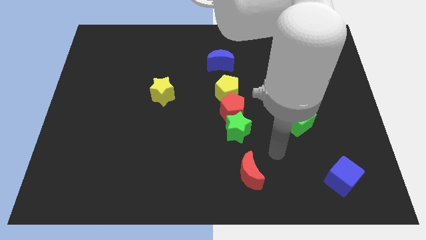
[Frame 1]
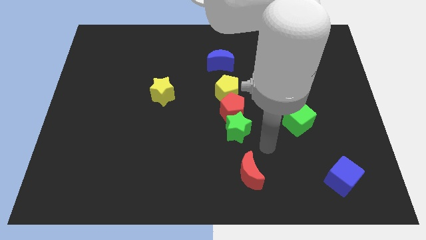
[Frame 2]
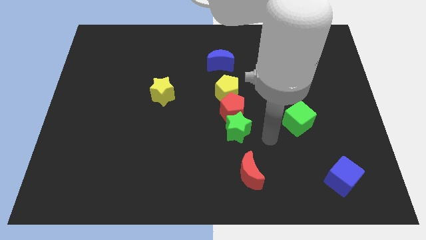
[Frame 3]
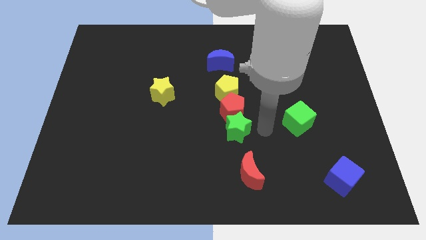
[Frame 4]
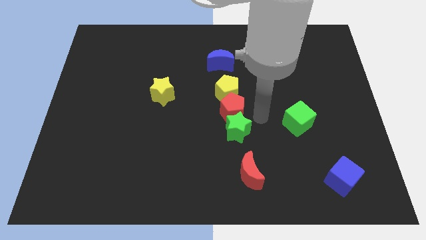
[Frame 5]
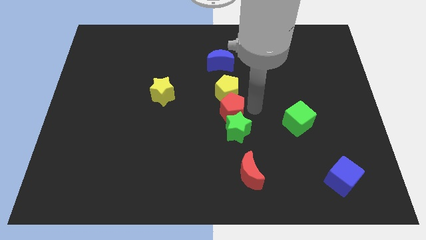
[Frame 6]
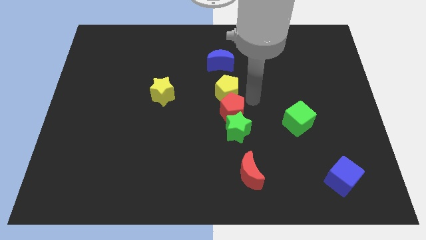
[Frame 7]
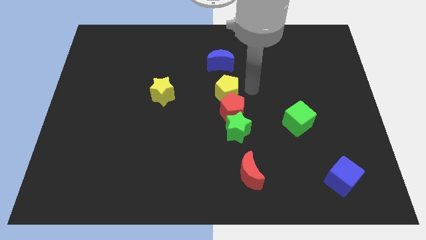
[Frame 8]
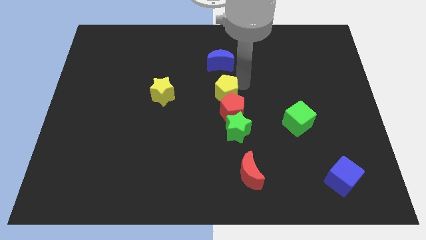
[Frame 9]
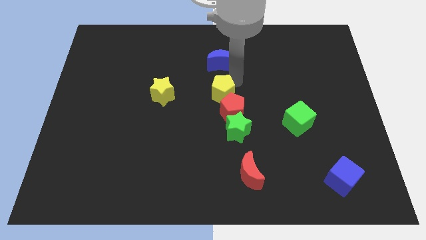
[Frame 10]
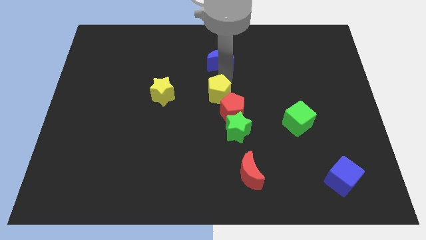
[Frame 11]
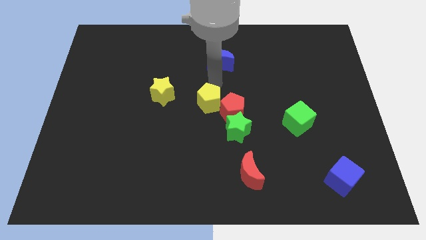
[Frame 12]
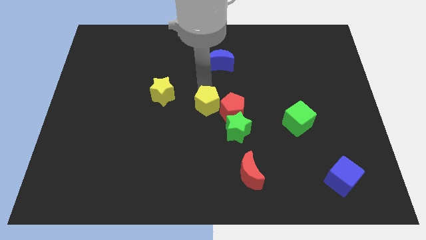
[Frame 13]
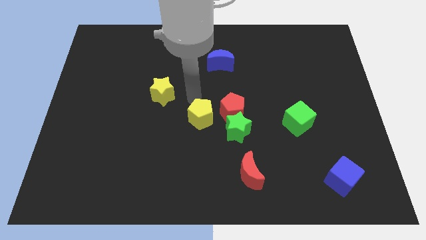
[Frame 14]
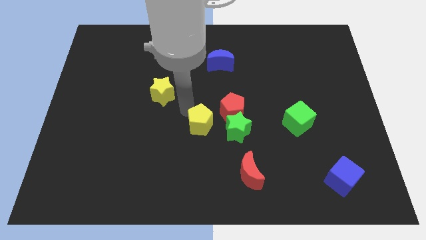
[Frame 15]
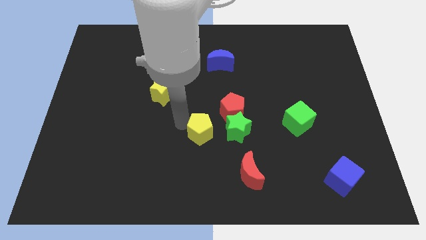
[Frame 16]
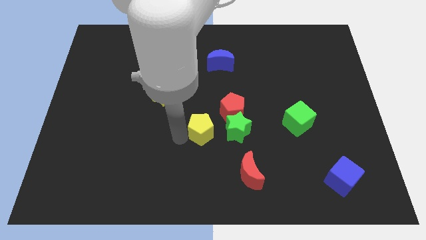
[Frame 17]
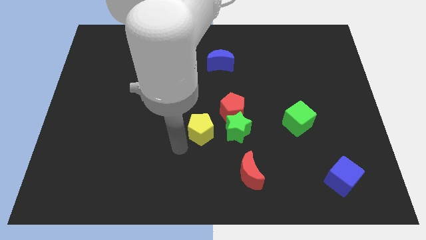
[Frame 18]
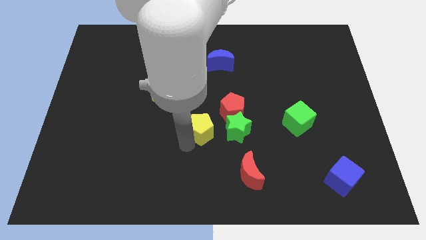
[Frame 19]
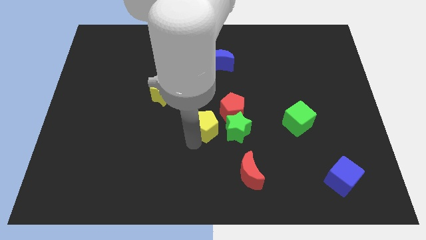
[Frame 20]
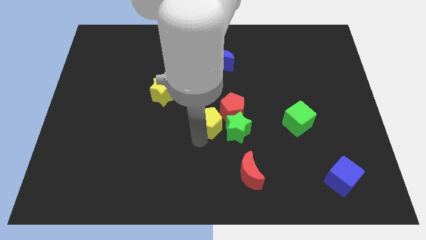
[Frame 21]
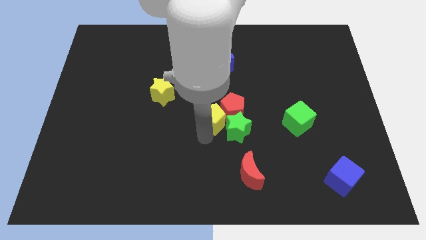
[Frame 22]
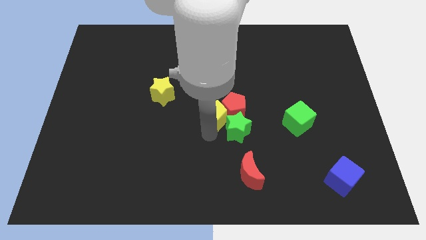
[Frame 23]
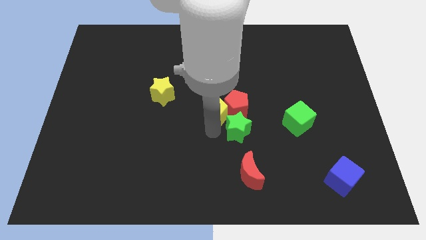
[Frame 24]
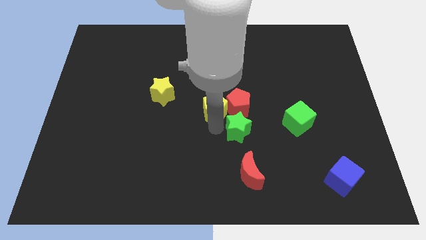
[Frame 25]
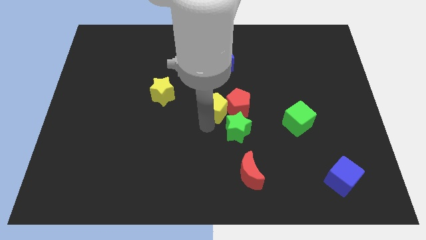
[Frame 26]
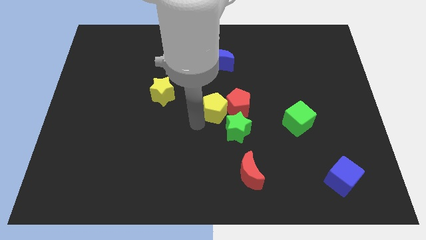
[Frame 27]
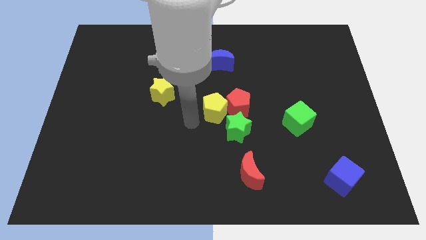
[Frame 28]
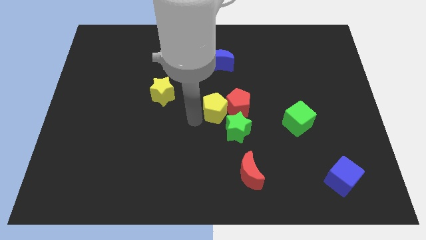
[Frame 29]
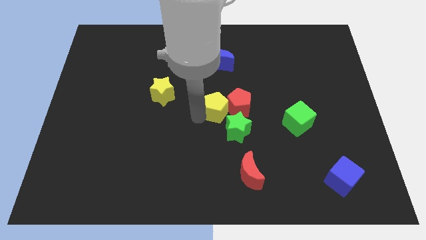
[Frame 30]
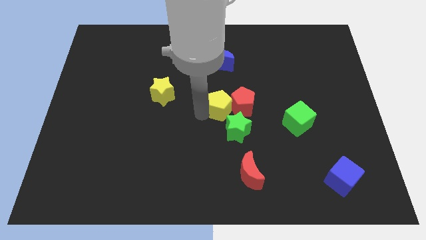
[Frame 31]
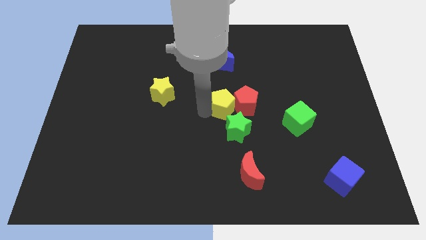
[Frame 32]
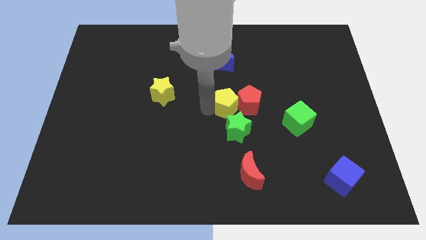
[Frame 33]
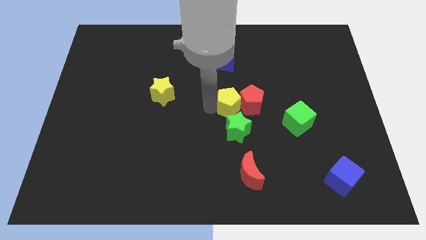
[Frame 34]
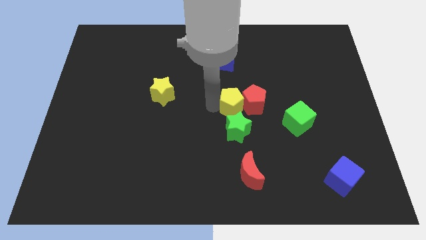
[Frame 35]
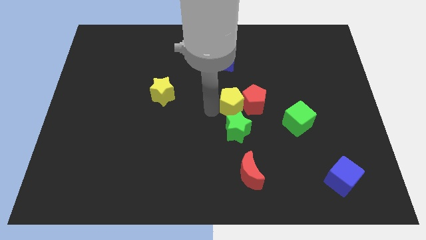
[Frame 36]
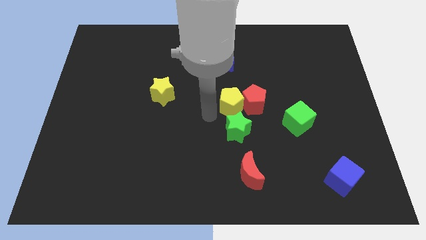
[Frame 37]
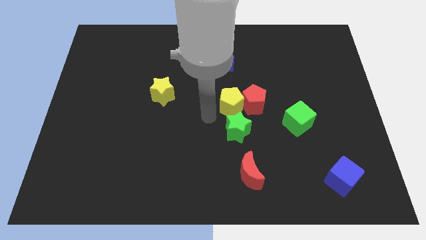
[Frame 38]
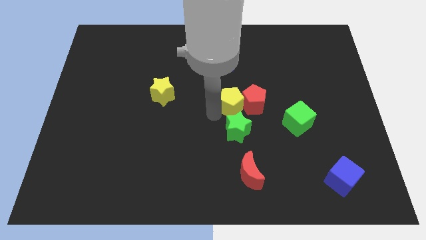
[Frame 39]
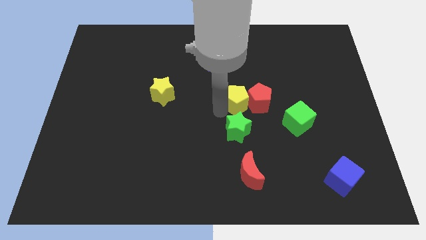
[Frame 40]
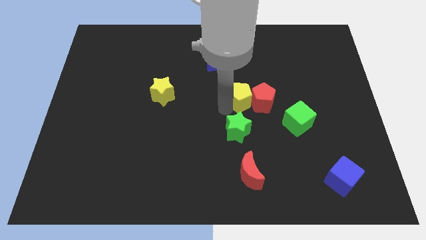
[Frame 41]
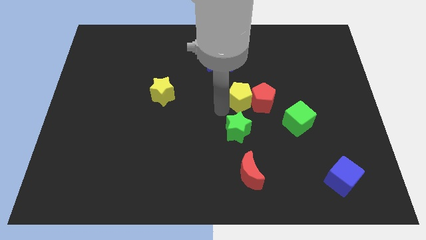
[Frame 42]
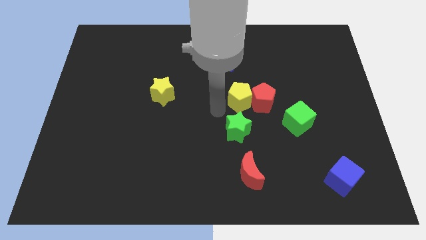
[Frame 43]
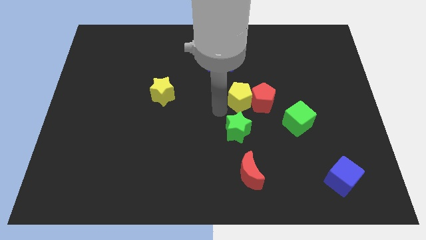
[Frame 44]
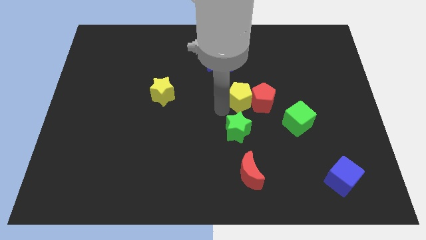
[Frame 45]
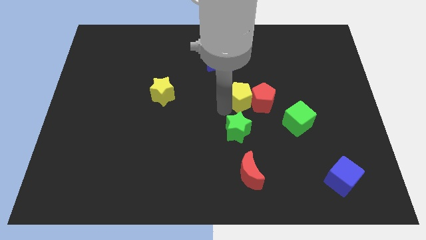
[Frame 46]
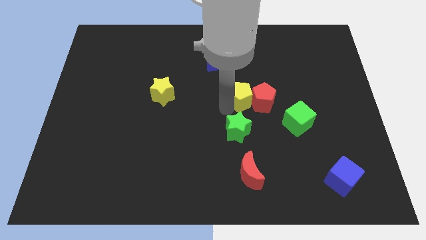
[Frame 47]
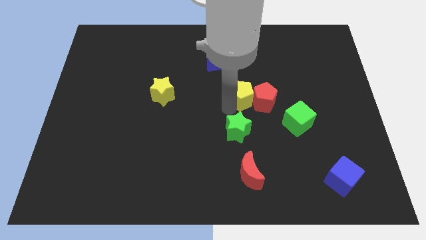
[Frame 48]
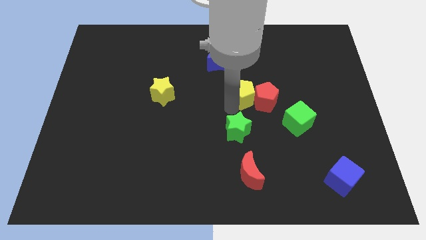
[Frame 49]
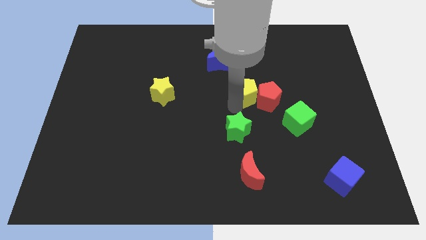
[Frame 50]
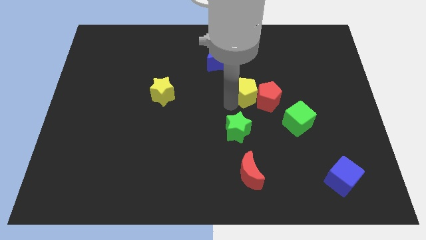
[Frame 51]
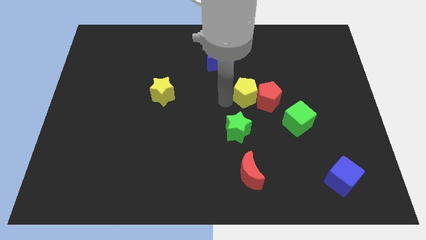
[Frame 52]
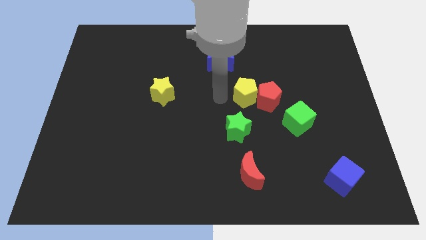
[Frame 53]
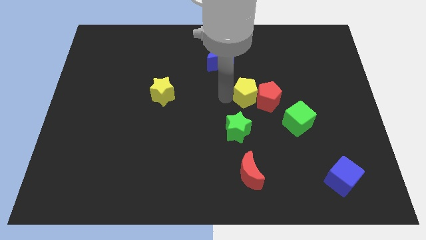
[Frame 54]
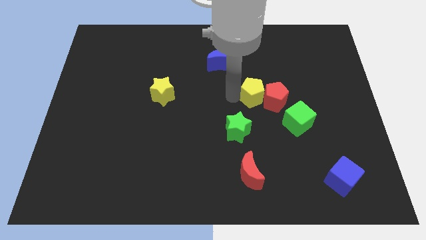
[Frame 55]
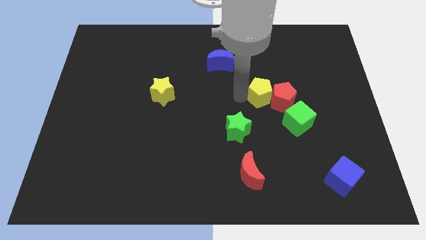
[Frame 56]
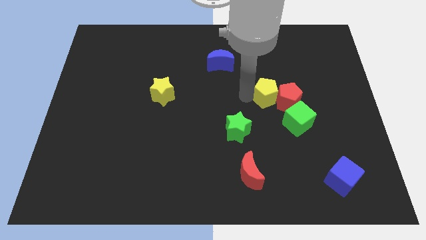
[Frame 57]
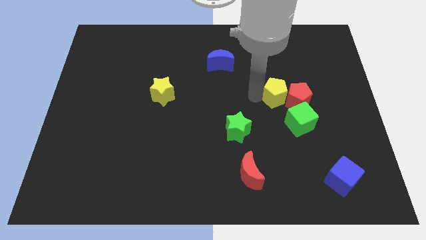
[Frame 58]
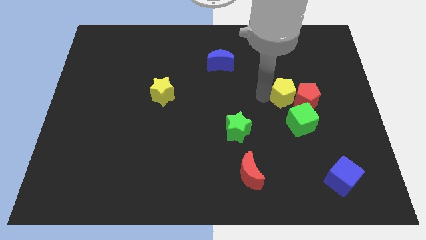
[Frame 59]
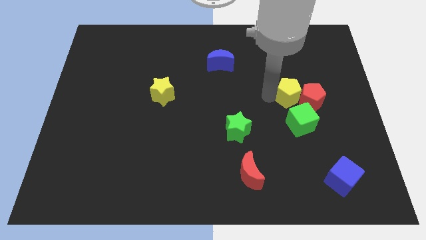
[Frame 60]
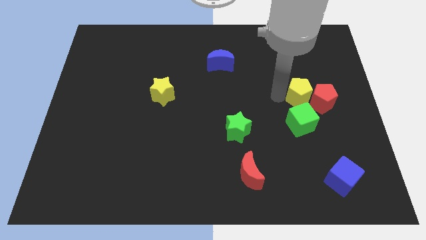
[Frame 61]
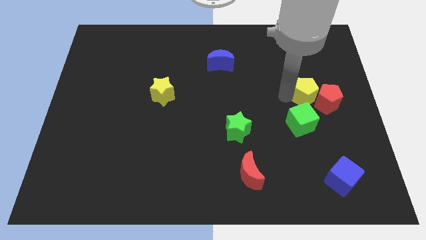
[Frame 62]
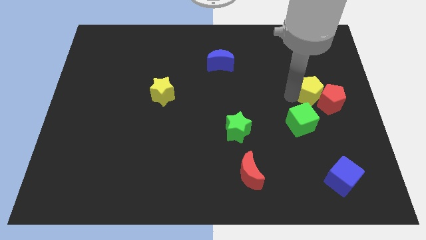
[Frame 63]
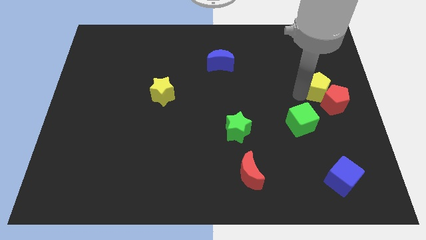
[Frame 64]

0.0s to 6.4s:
move the yellow pentagon to the right side
